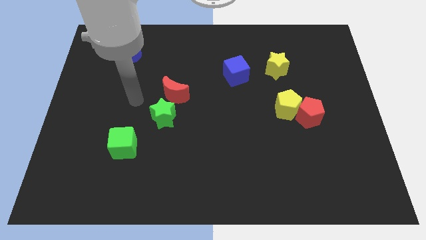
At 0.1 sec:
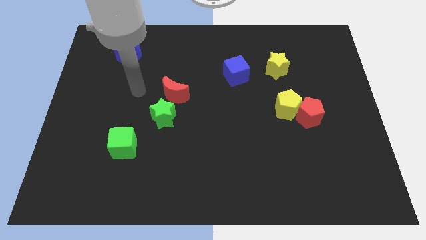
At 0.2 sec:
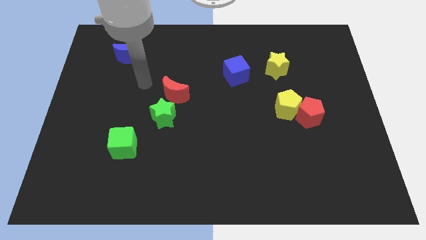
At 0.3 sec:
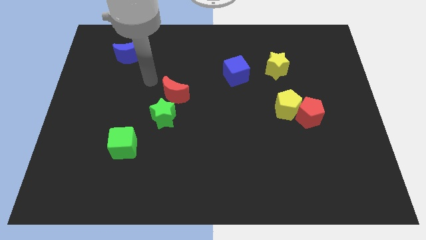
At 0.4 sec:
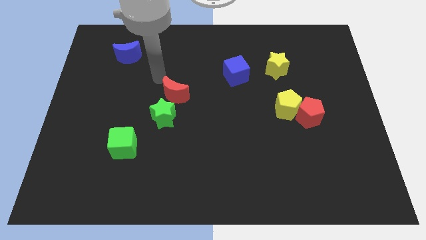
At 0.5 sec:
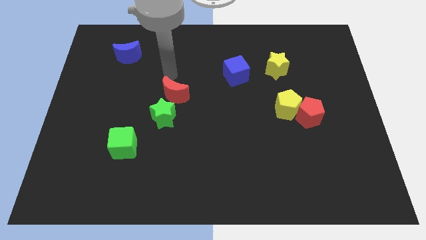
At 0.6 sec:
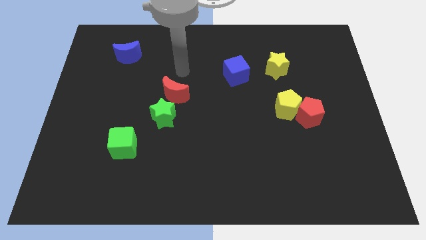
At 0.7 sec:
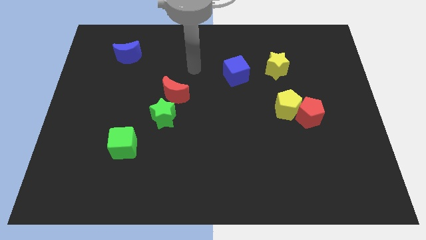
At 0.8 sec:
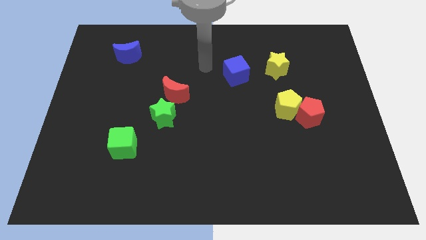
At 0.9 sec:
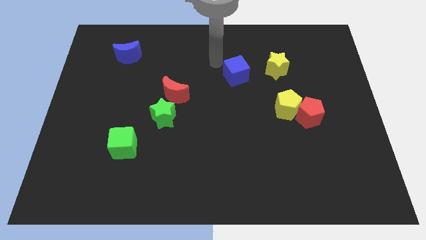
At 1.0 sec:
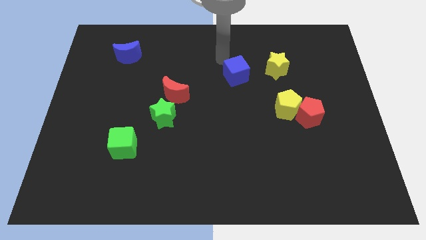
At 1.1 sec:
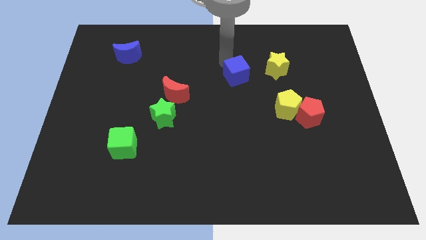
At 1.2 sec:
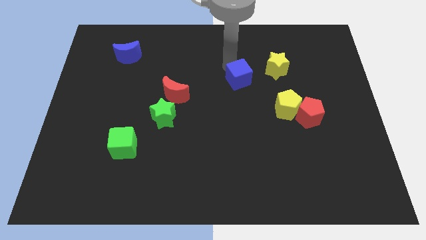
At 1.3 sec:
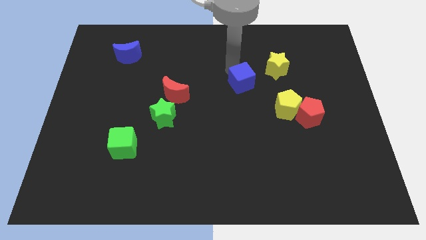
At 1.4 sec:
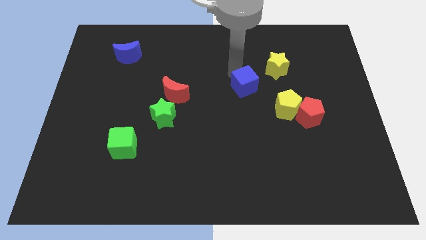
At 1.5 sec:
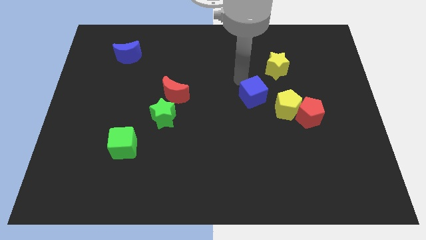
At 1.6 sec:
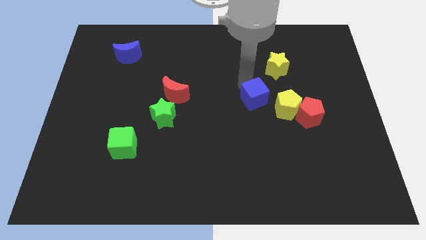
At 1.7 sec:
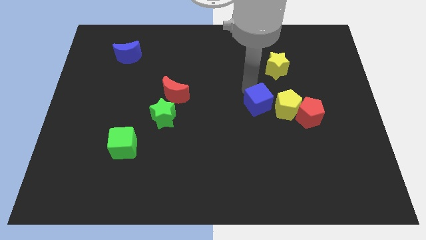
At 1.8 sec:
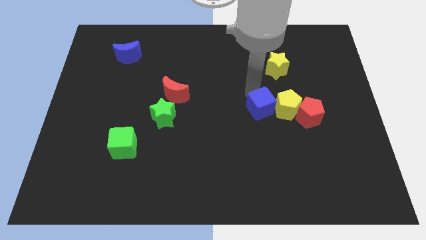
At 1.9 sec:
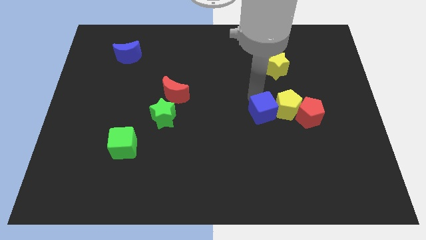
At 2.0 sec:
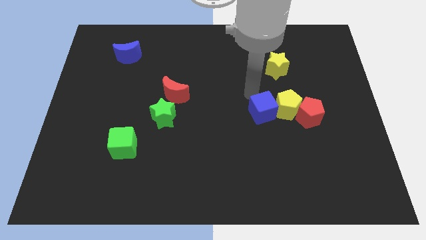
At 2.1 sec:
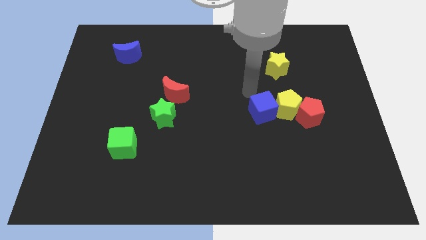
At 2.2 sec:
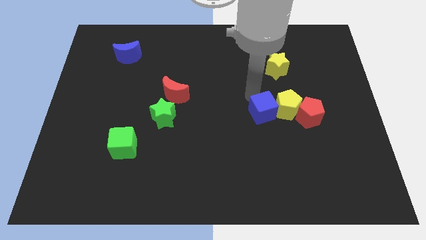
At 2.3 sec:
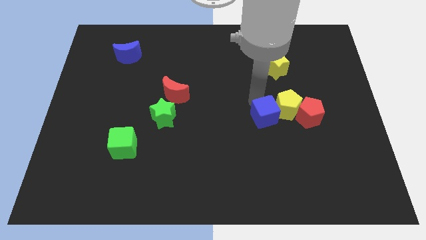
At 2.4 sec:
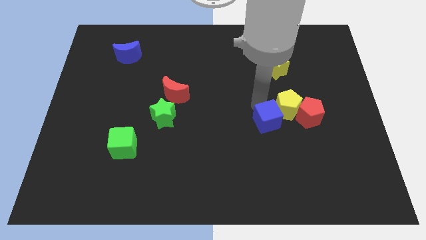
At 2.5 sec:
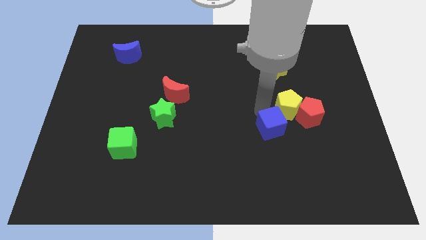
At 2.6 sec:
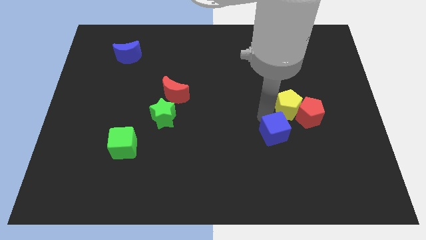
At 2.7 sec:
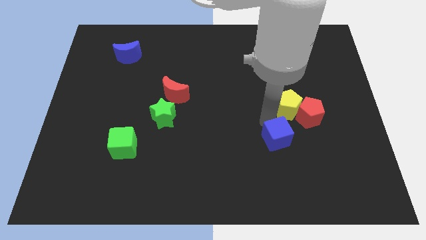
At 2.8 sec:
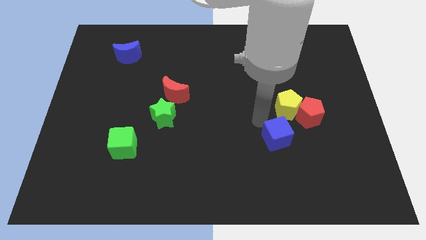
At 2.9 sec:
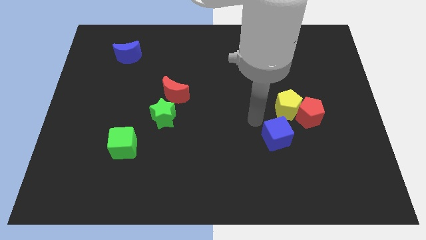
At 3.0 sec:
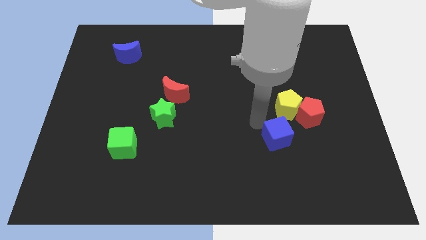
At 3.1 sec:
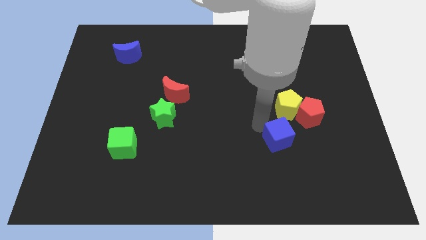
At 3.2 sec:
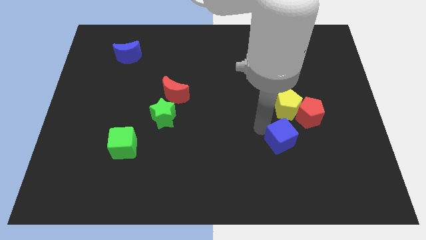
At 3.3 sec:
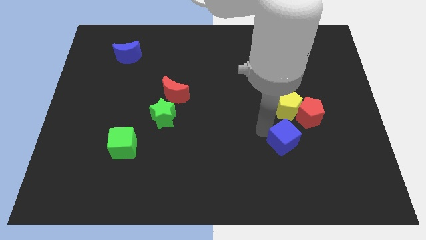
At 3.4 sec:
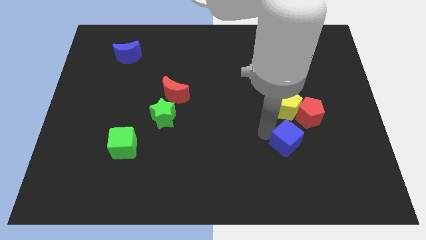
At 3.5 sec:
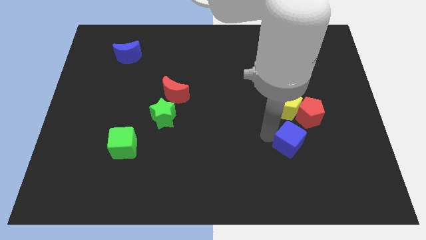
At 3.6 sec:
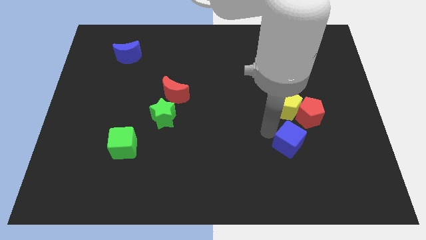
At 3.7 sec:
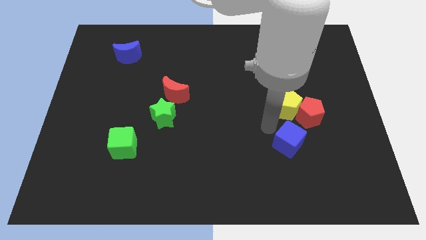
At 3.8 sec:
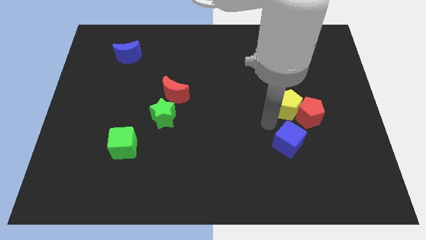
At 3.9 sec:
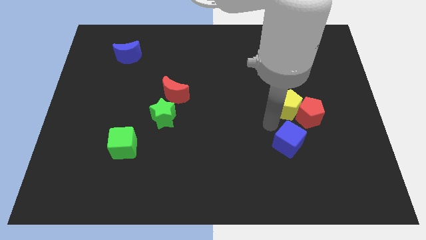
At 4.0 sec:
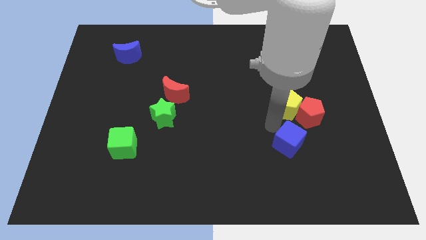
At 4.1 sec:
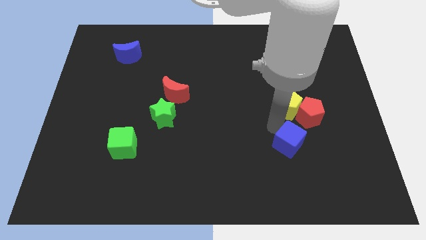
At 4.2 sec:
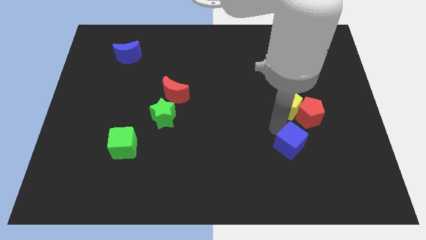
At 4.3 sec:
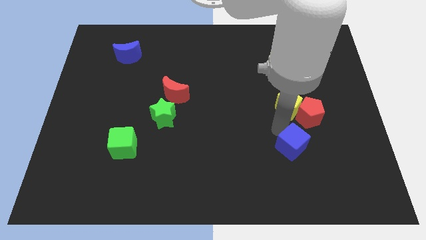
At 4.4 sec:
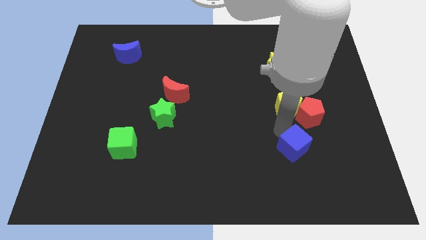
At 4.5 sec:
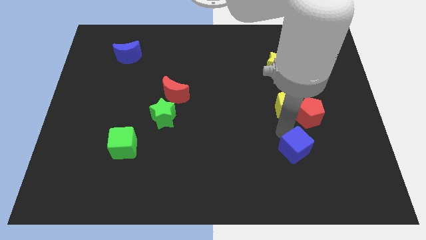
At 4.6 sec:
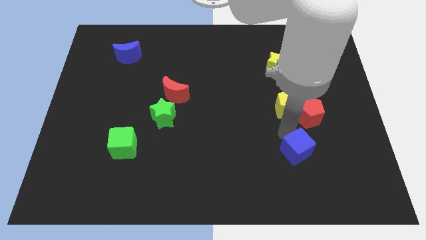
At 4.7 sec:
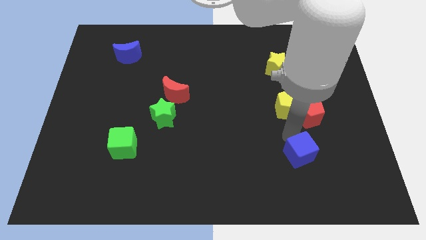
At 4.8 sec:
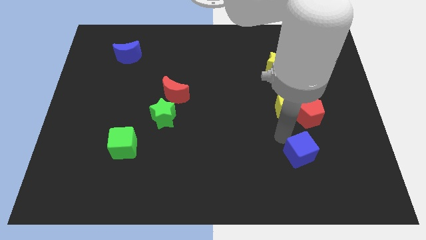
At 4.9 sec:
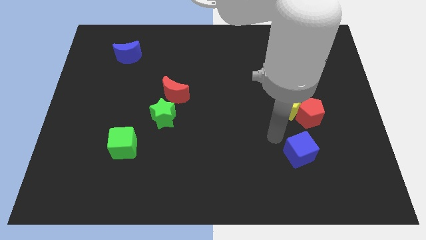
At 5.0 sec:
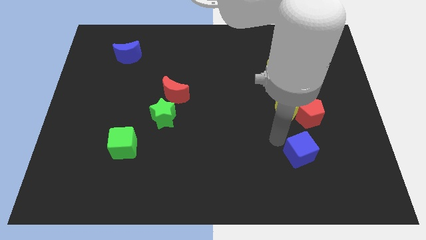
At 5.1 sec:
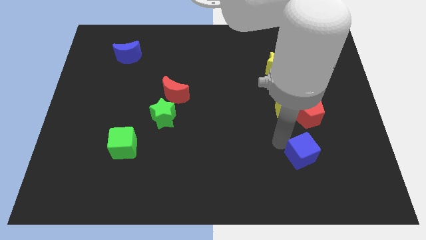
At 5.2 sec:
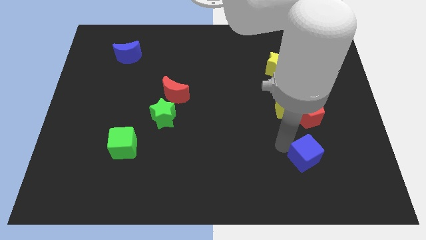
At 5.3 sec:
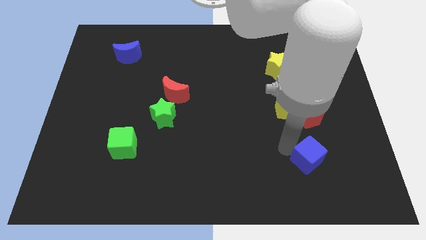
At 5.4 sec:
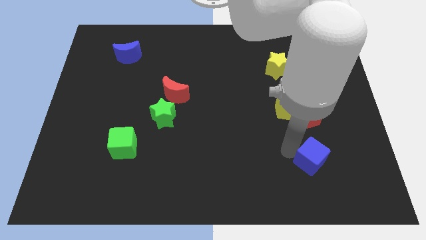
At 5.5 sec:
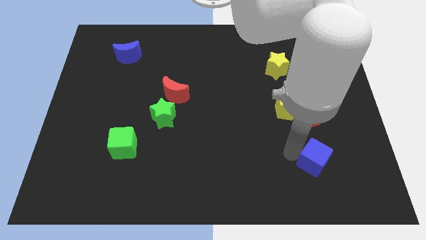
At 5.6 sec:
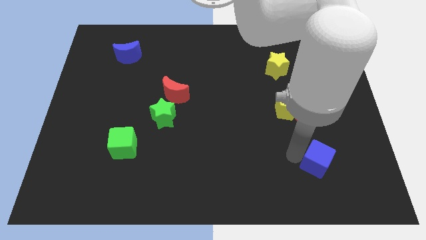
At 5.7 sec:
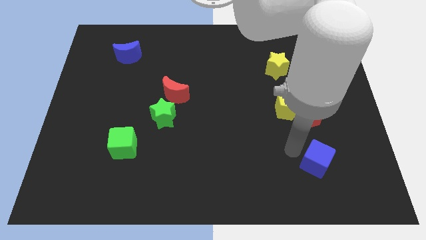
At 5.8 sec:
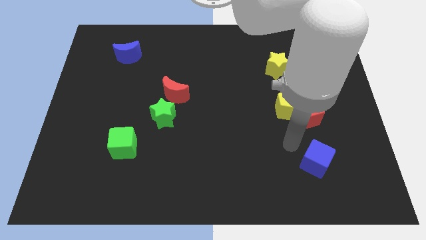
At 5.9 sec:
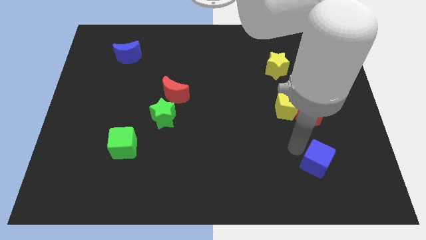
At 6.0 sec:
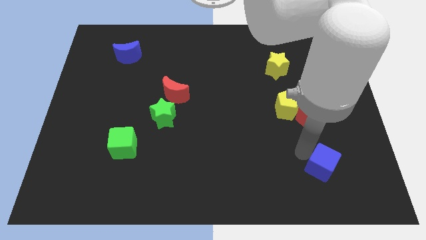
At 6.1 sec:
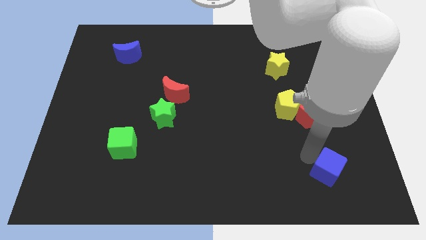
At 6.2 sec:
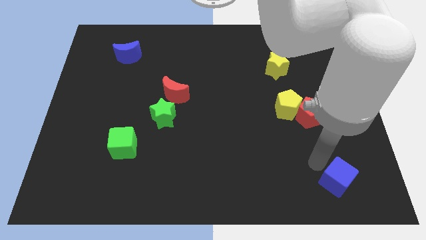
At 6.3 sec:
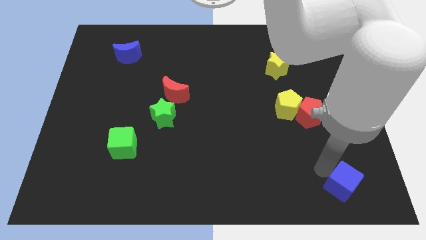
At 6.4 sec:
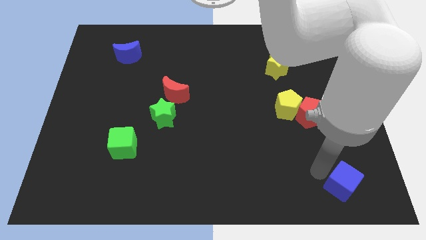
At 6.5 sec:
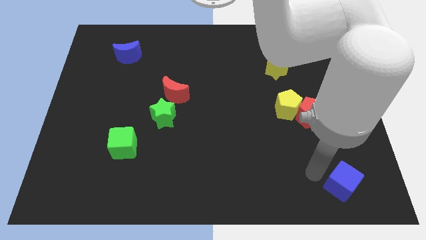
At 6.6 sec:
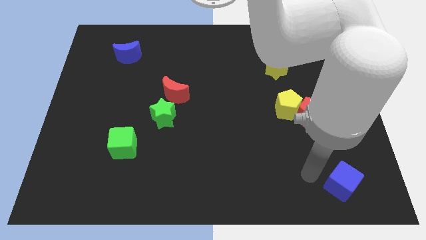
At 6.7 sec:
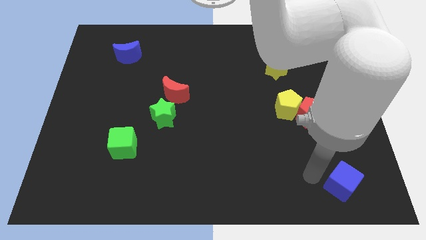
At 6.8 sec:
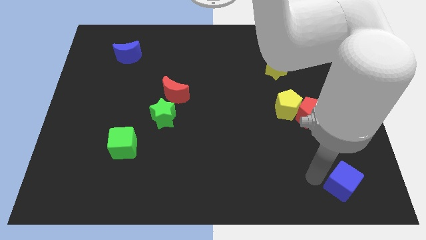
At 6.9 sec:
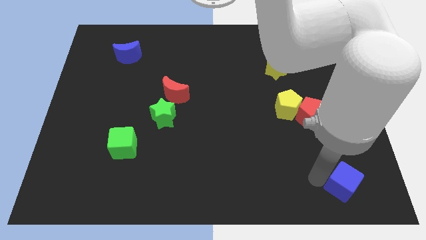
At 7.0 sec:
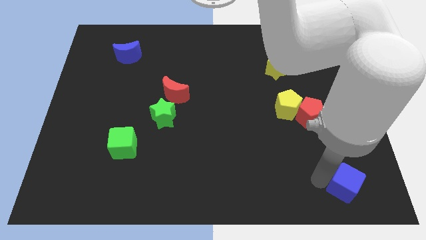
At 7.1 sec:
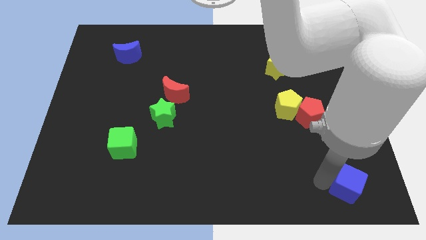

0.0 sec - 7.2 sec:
slide the blue cube to the bottom right of the board
